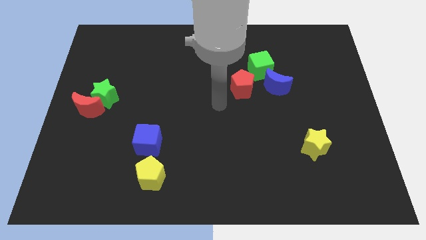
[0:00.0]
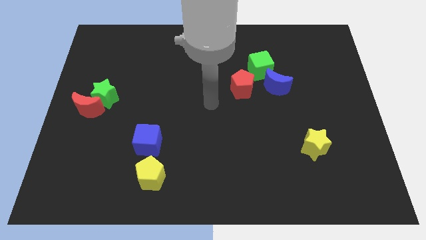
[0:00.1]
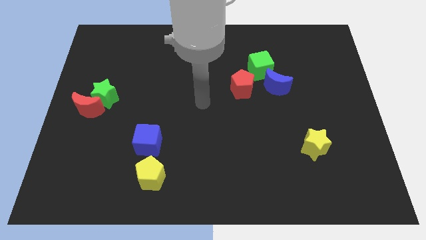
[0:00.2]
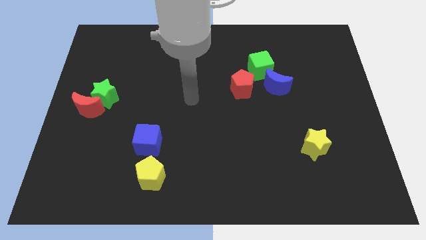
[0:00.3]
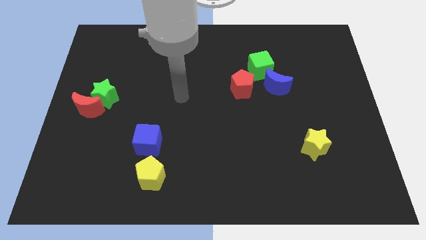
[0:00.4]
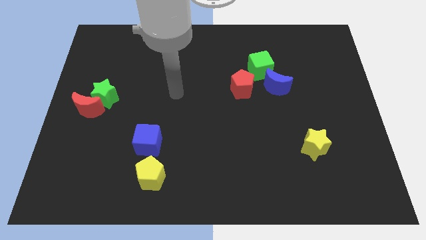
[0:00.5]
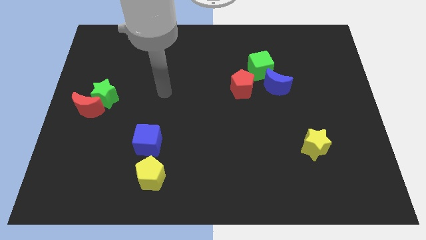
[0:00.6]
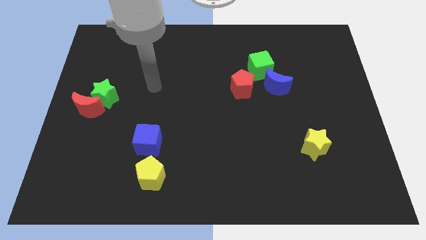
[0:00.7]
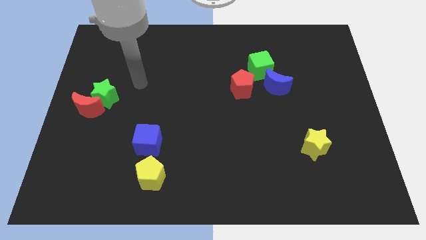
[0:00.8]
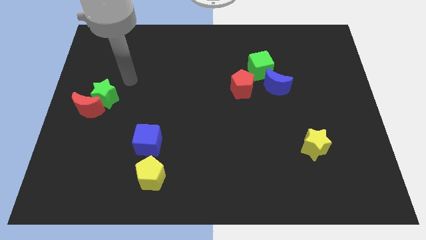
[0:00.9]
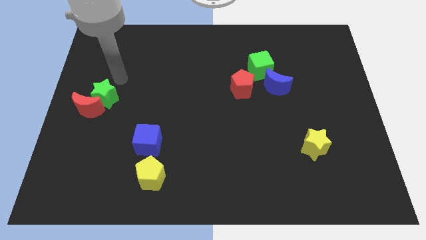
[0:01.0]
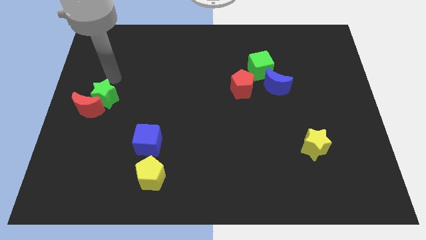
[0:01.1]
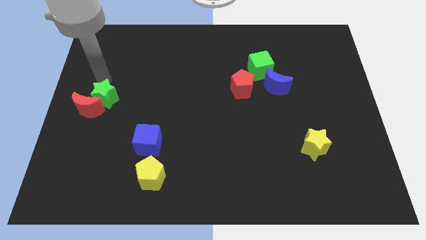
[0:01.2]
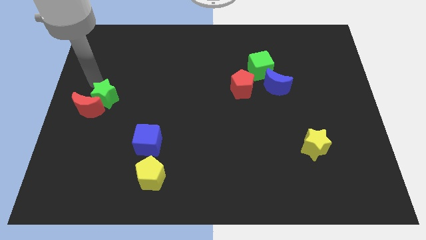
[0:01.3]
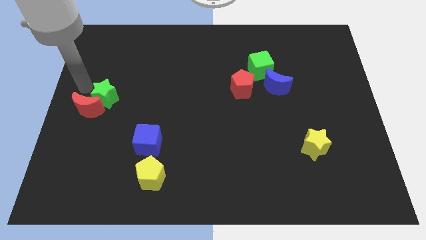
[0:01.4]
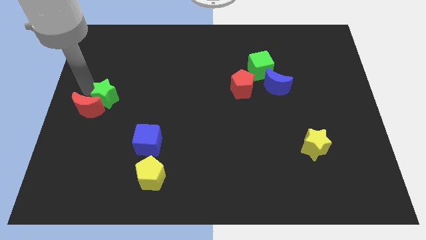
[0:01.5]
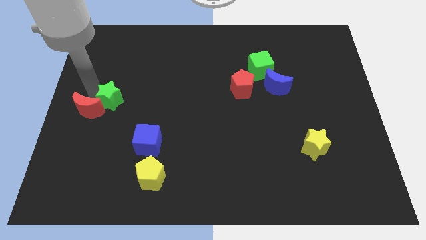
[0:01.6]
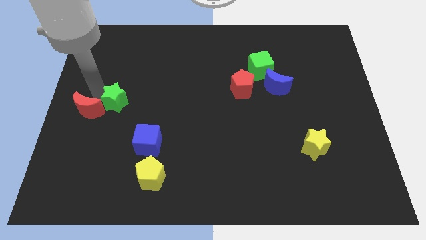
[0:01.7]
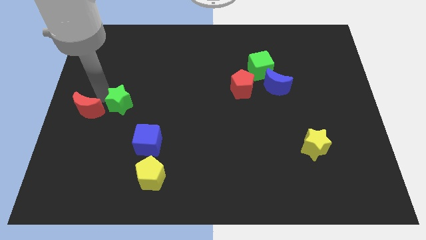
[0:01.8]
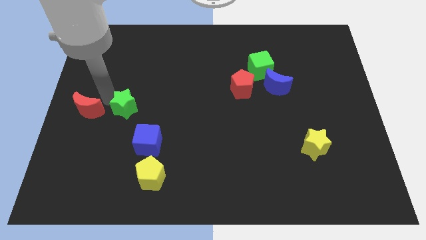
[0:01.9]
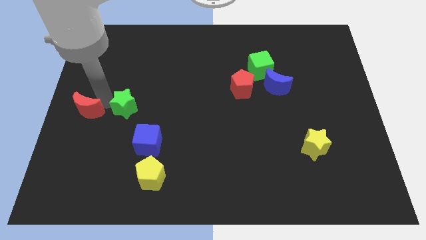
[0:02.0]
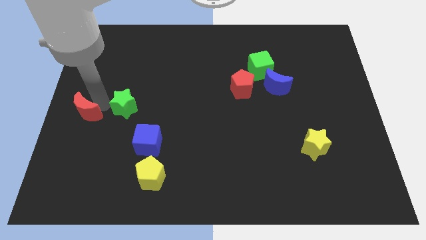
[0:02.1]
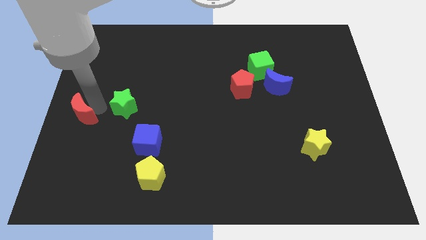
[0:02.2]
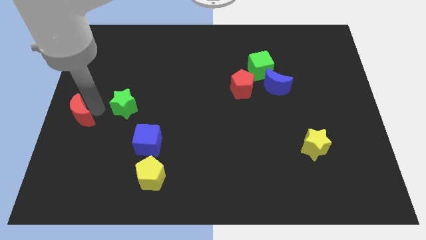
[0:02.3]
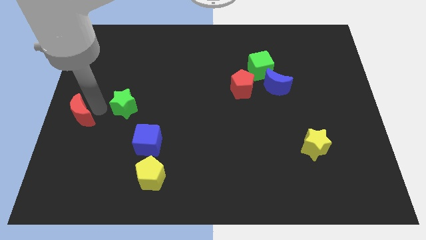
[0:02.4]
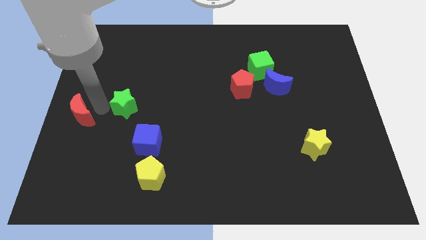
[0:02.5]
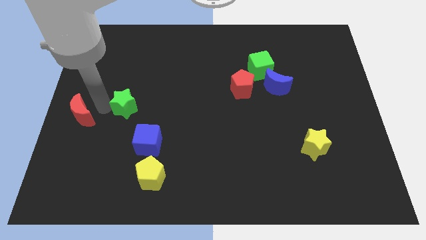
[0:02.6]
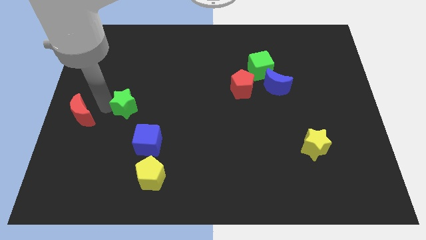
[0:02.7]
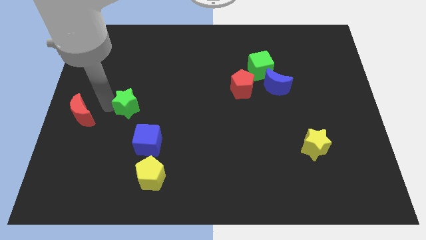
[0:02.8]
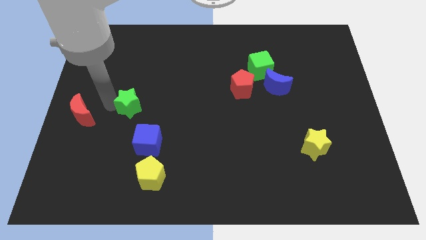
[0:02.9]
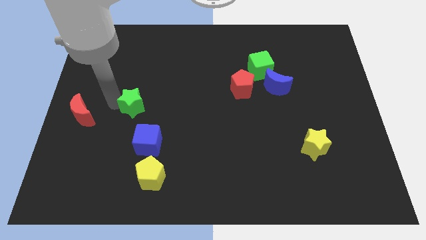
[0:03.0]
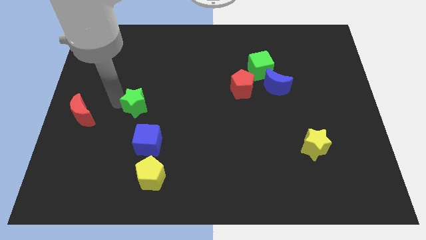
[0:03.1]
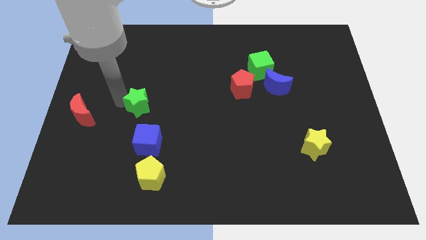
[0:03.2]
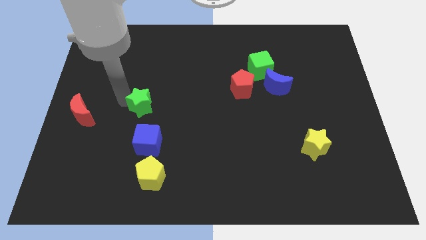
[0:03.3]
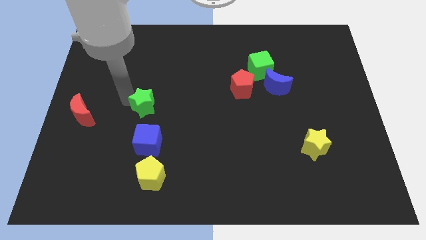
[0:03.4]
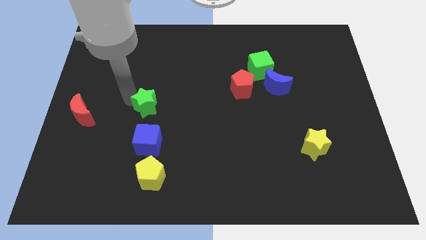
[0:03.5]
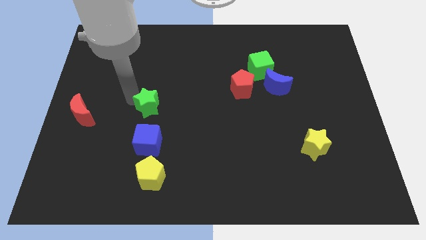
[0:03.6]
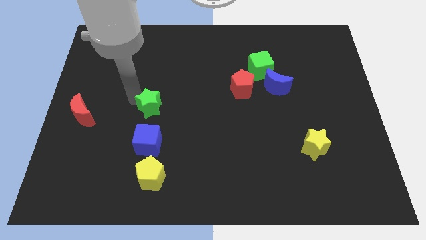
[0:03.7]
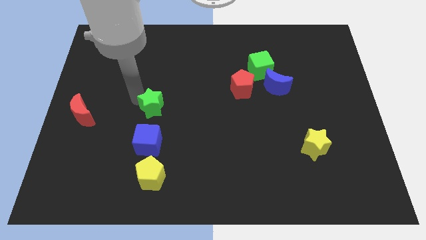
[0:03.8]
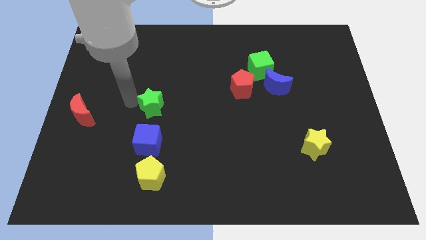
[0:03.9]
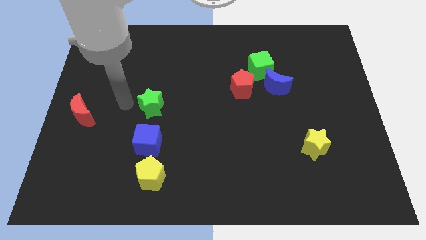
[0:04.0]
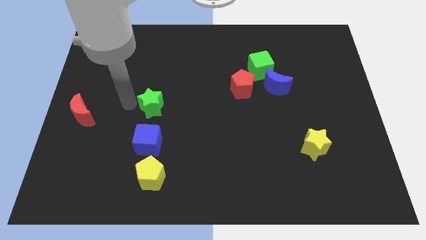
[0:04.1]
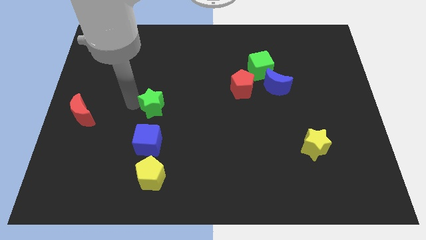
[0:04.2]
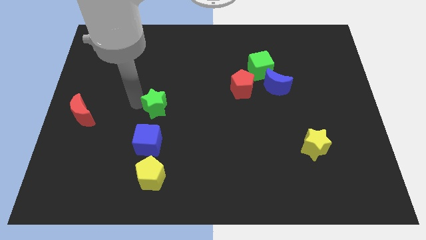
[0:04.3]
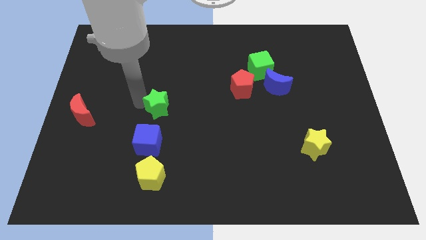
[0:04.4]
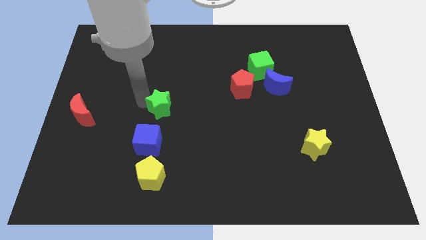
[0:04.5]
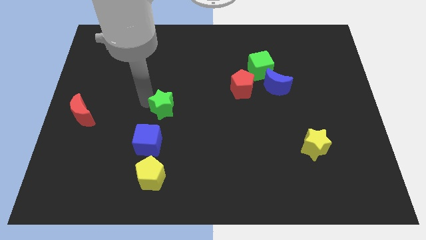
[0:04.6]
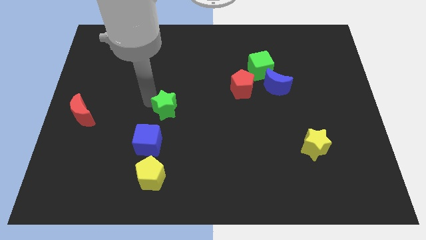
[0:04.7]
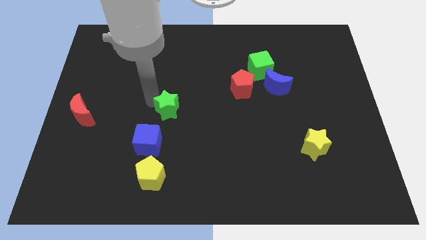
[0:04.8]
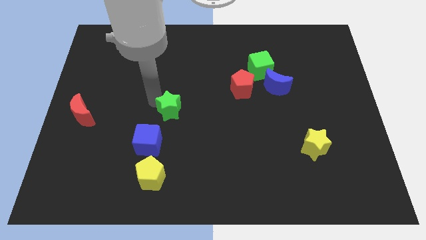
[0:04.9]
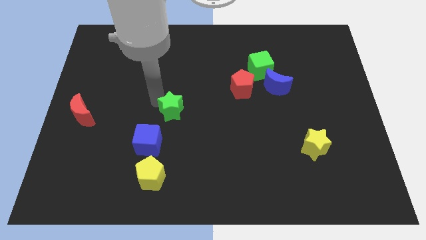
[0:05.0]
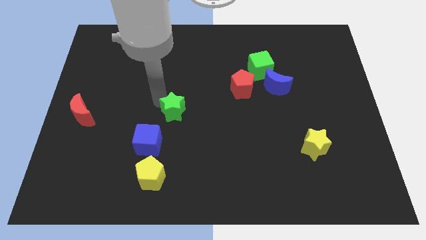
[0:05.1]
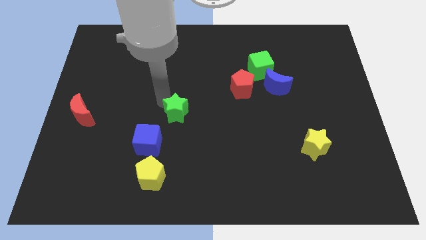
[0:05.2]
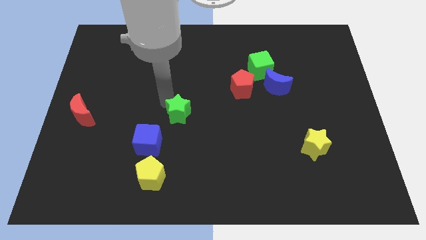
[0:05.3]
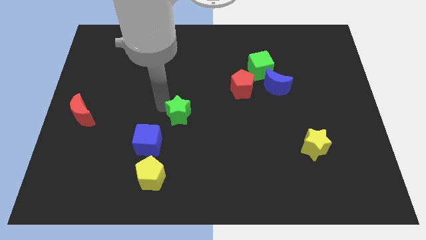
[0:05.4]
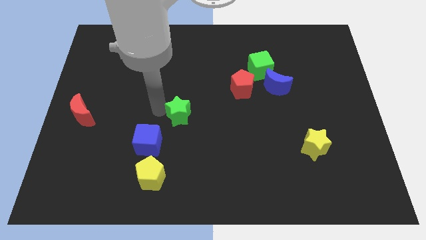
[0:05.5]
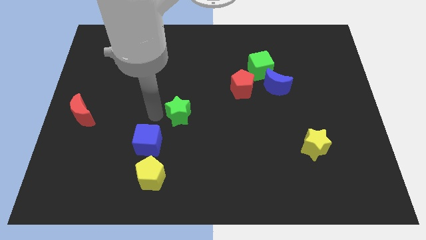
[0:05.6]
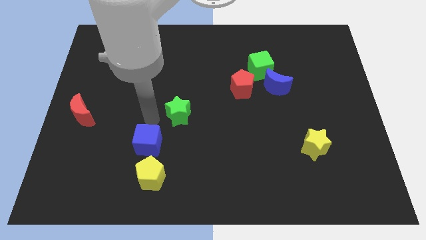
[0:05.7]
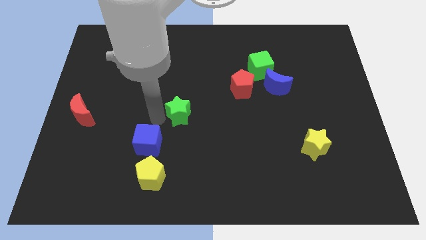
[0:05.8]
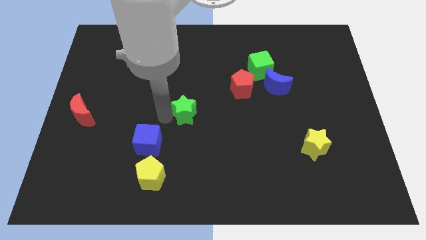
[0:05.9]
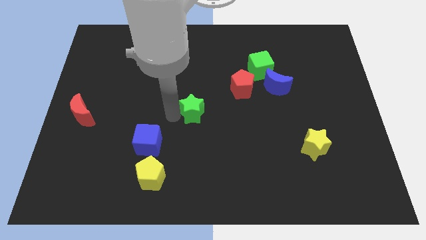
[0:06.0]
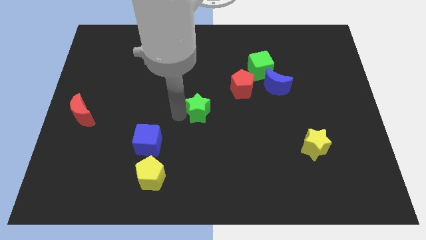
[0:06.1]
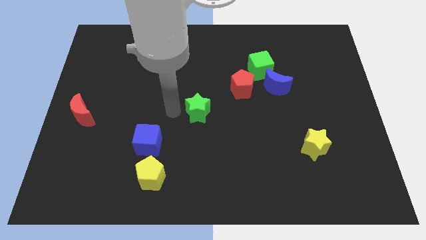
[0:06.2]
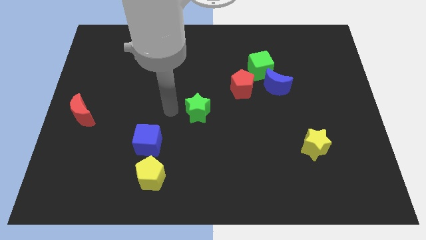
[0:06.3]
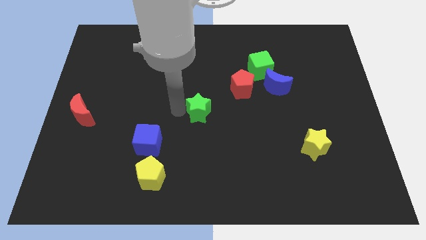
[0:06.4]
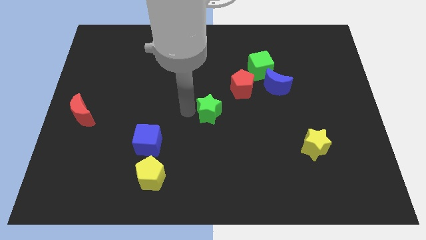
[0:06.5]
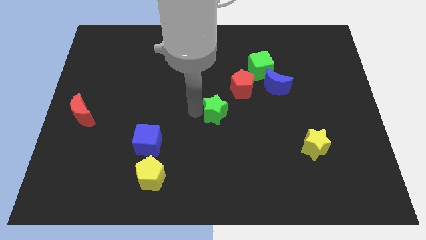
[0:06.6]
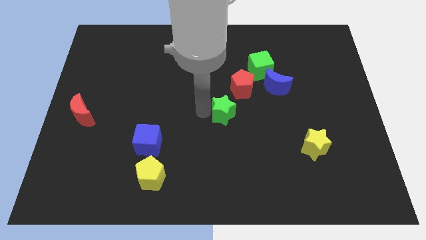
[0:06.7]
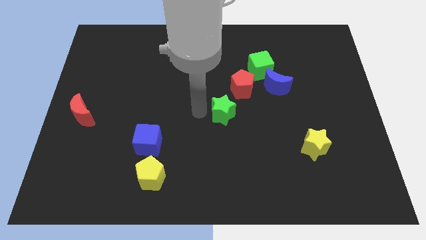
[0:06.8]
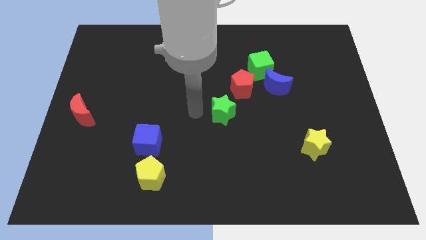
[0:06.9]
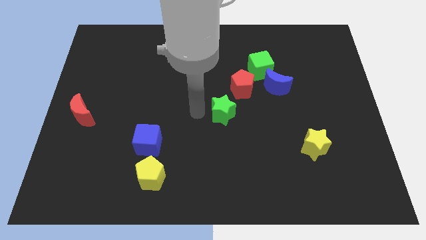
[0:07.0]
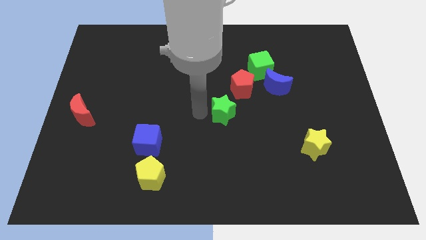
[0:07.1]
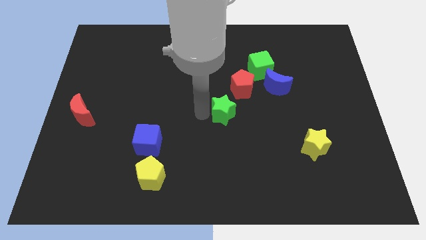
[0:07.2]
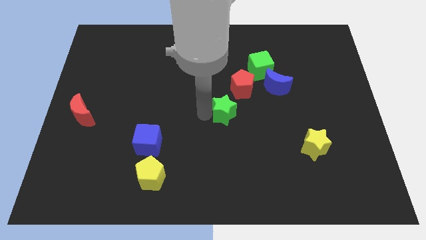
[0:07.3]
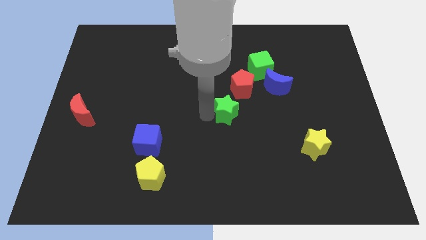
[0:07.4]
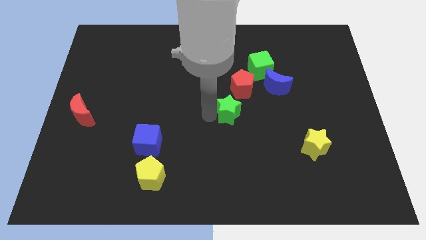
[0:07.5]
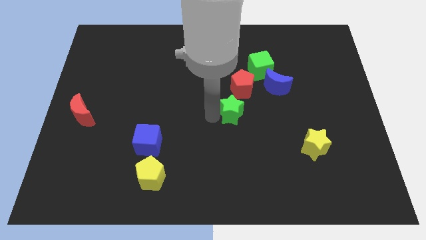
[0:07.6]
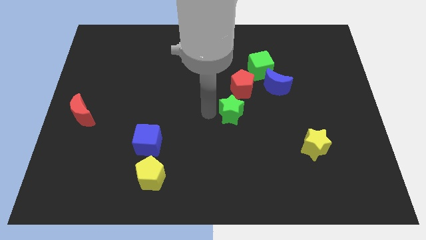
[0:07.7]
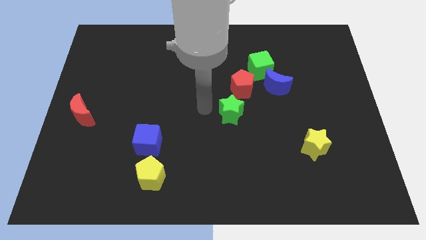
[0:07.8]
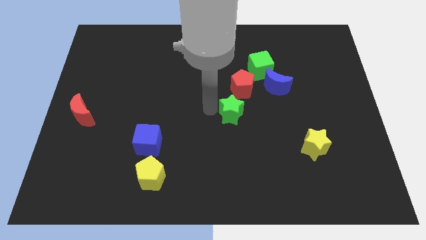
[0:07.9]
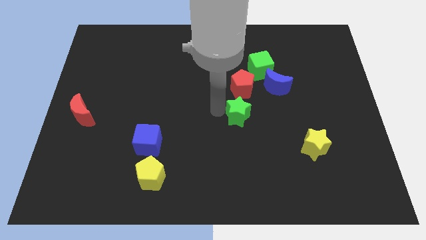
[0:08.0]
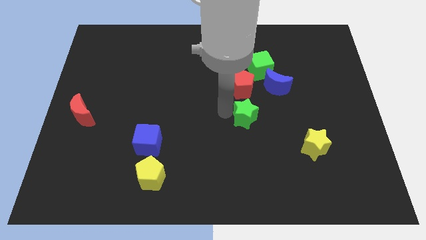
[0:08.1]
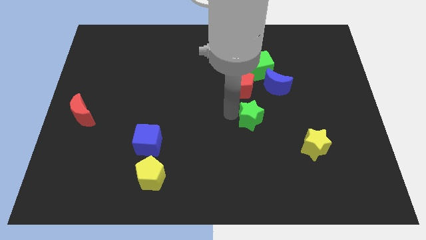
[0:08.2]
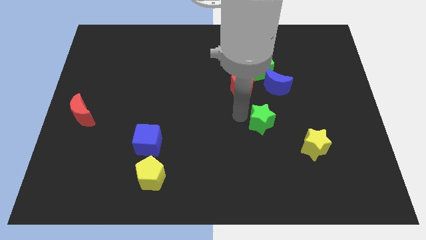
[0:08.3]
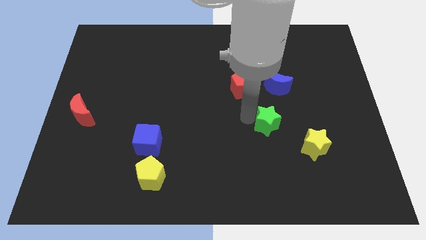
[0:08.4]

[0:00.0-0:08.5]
put the green star to the top left of the yellow star
